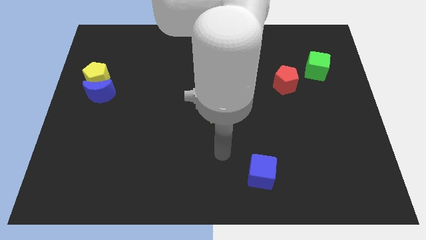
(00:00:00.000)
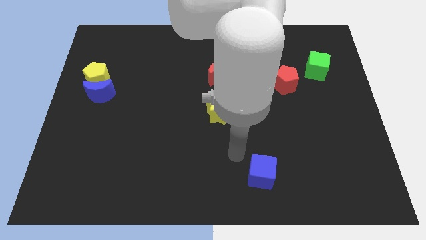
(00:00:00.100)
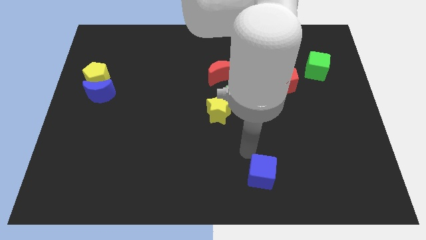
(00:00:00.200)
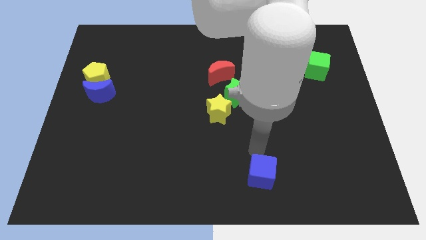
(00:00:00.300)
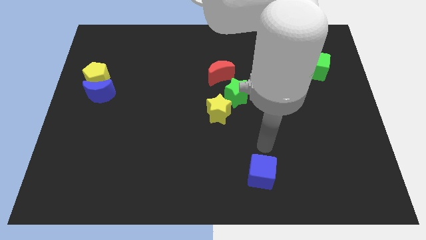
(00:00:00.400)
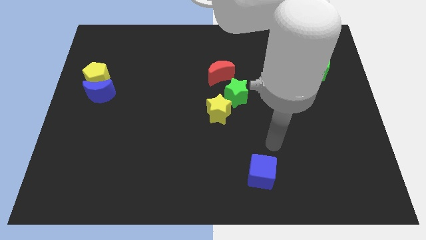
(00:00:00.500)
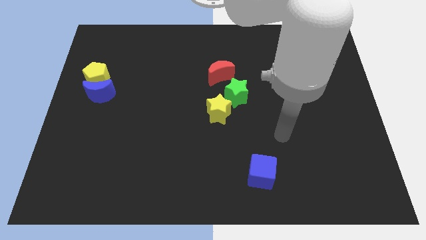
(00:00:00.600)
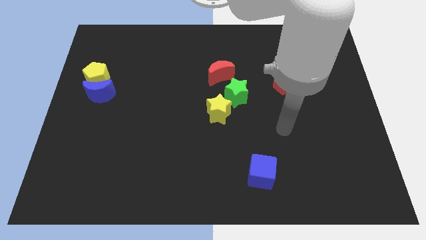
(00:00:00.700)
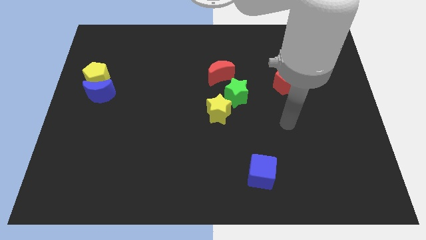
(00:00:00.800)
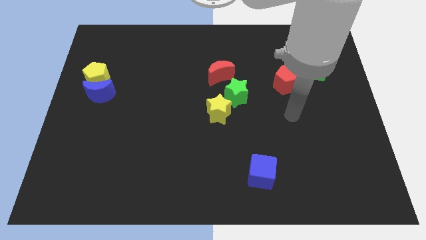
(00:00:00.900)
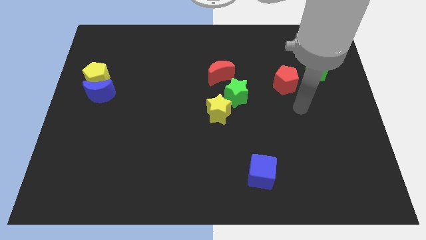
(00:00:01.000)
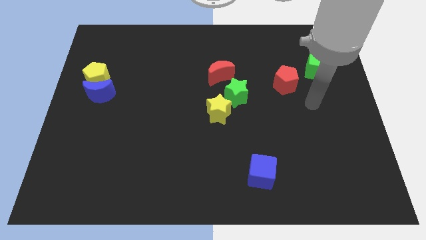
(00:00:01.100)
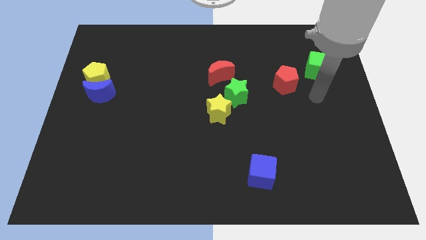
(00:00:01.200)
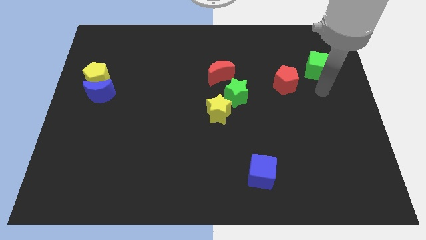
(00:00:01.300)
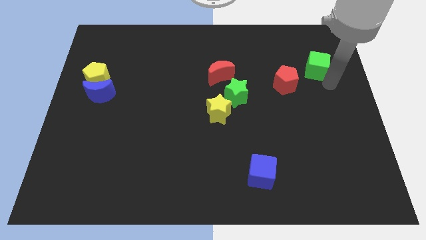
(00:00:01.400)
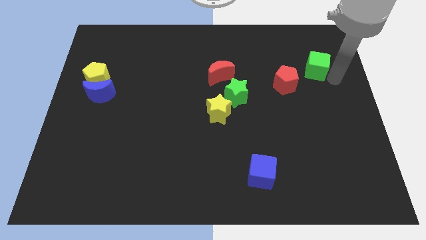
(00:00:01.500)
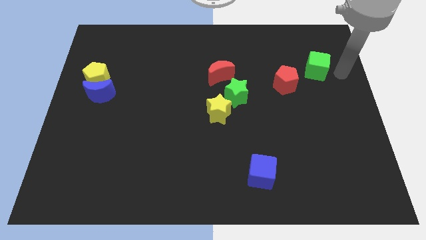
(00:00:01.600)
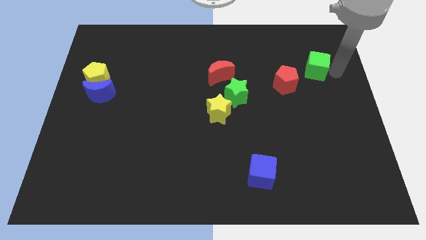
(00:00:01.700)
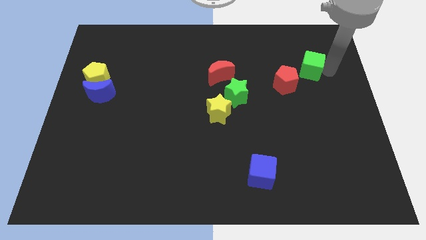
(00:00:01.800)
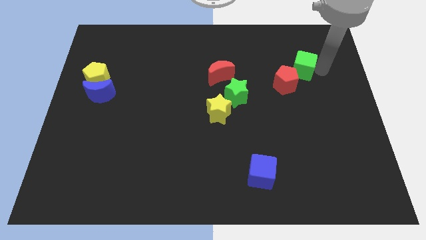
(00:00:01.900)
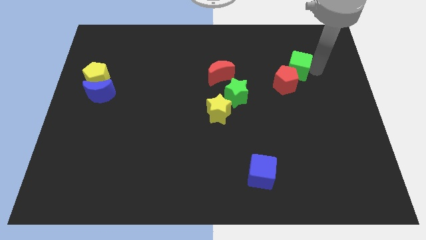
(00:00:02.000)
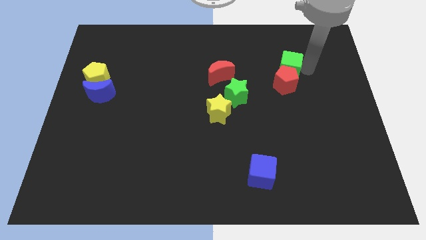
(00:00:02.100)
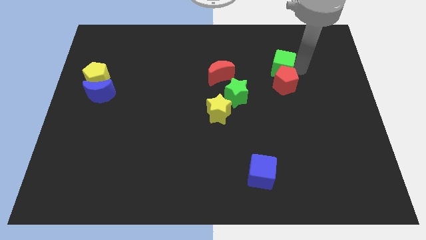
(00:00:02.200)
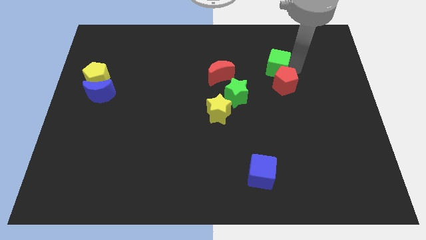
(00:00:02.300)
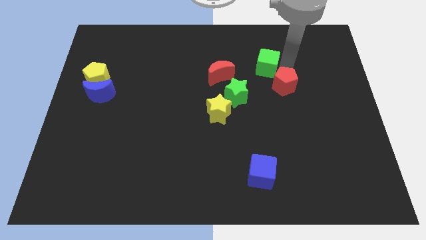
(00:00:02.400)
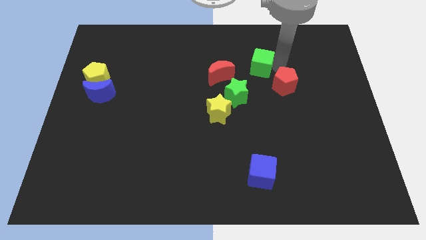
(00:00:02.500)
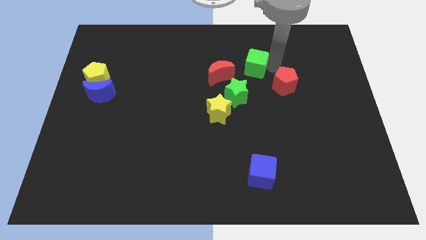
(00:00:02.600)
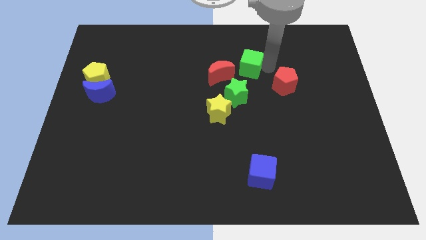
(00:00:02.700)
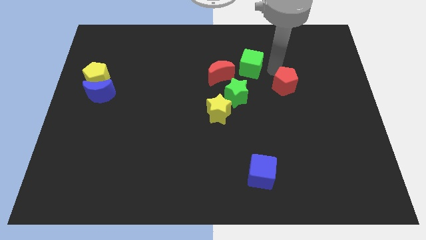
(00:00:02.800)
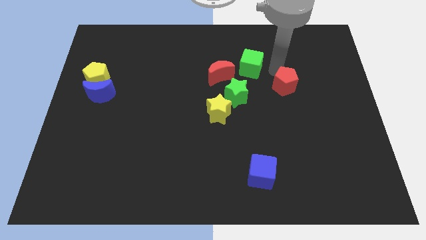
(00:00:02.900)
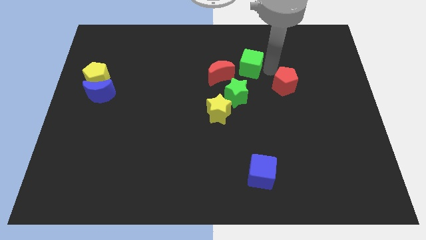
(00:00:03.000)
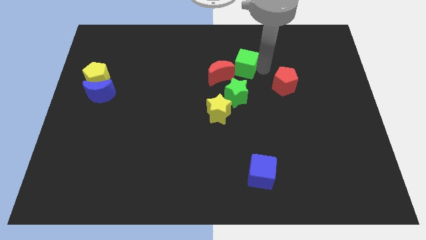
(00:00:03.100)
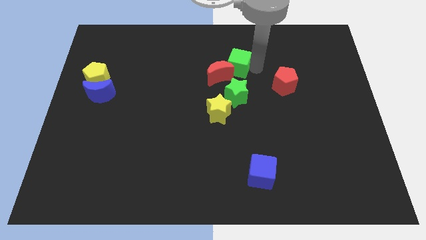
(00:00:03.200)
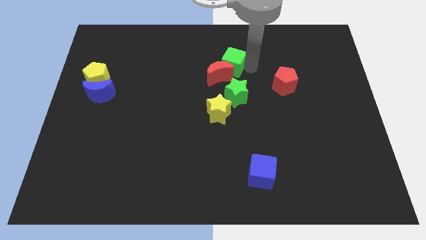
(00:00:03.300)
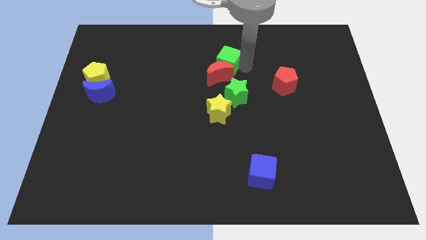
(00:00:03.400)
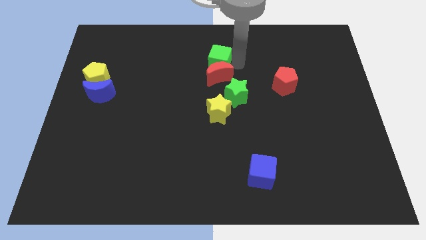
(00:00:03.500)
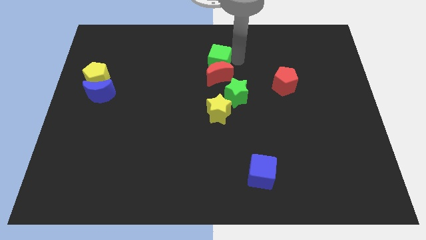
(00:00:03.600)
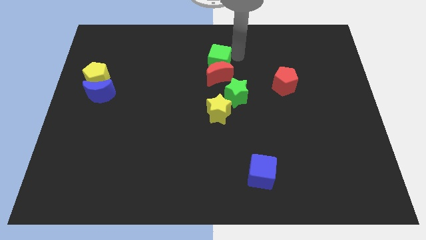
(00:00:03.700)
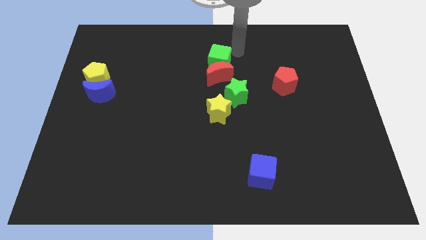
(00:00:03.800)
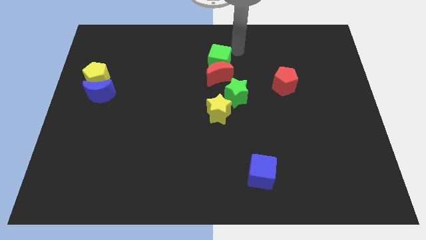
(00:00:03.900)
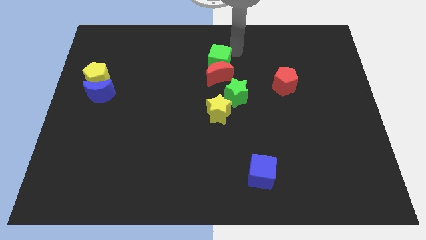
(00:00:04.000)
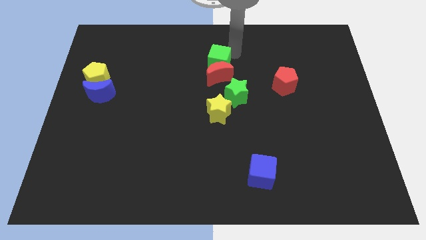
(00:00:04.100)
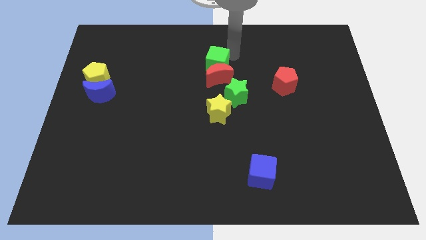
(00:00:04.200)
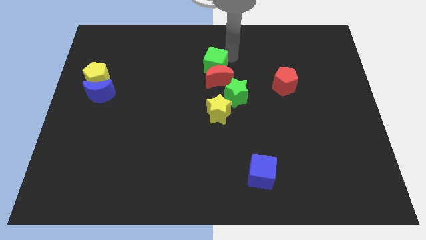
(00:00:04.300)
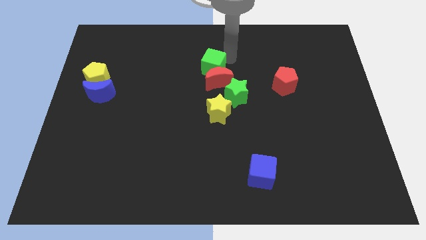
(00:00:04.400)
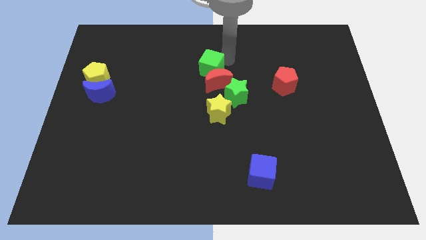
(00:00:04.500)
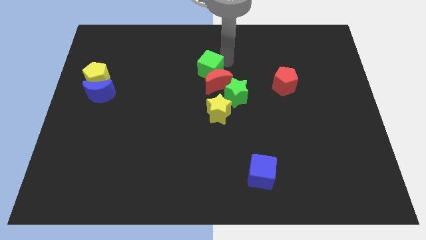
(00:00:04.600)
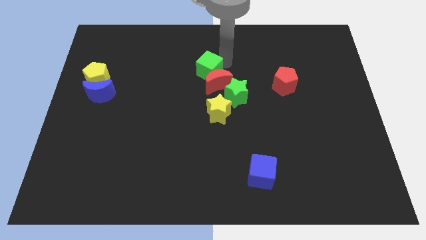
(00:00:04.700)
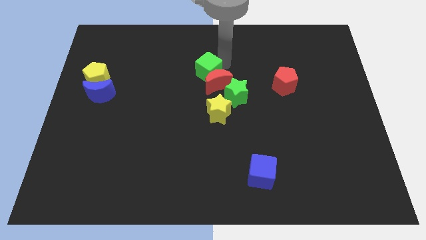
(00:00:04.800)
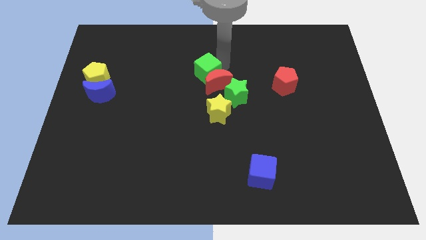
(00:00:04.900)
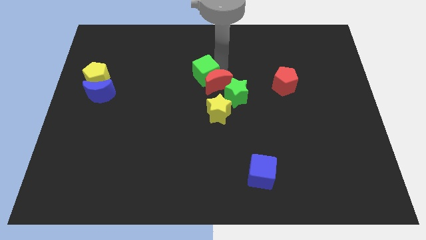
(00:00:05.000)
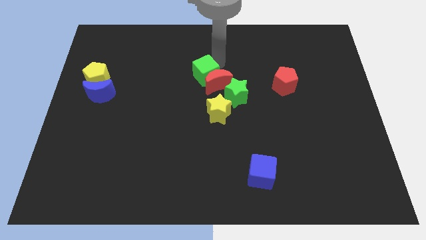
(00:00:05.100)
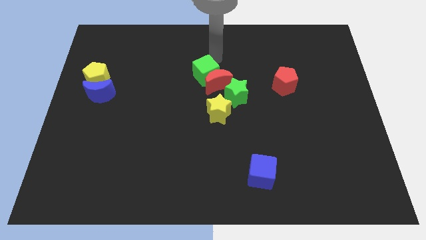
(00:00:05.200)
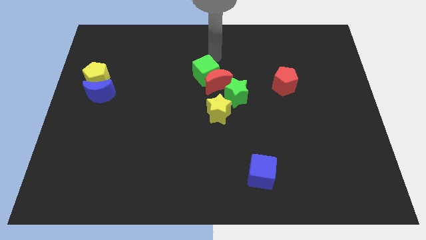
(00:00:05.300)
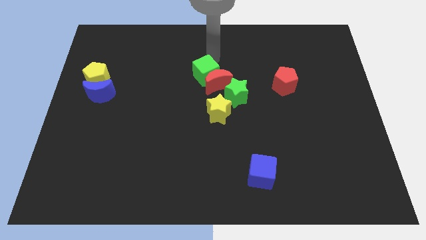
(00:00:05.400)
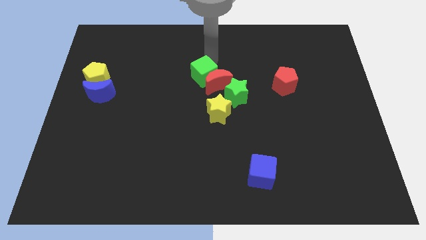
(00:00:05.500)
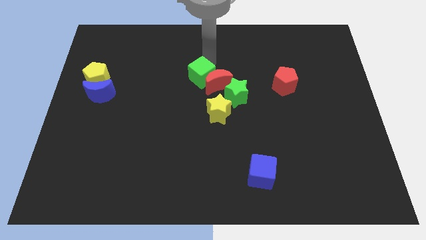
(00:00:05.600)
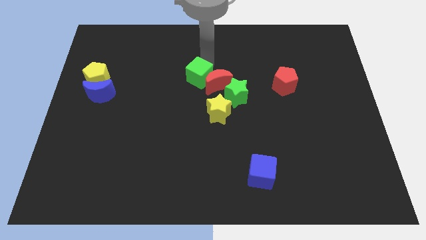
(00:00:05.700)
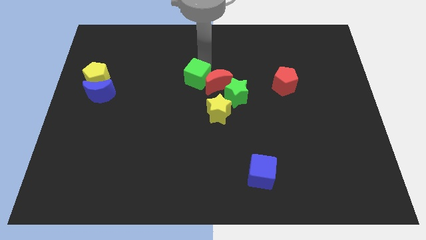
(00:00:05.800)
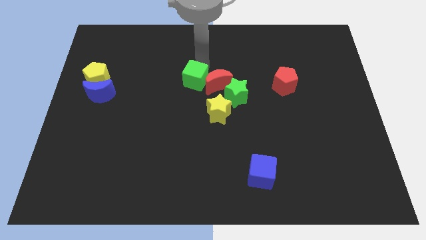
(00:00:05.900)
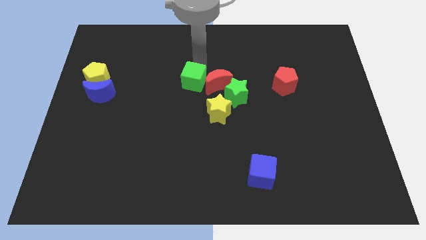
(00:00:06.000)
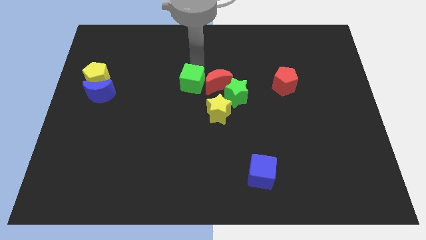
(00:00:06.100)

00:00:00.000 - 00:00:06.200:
move the green cube to the left side of the green star
